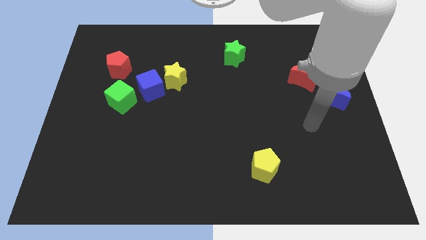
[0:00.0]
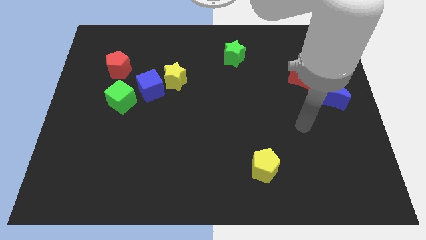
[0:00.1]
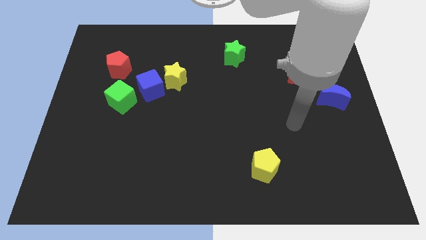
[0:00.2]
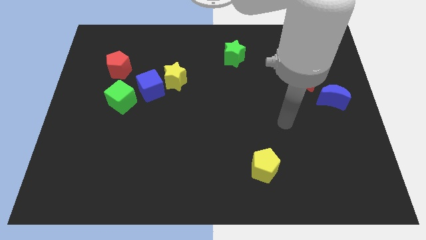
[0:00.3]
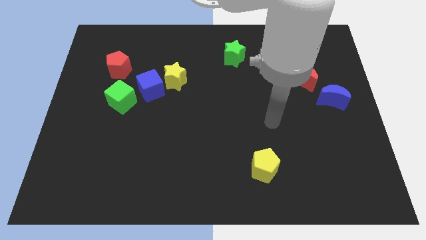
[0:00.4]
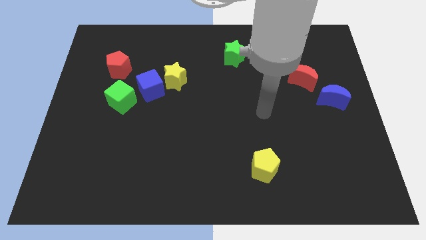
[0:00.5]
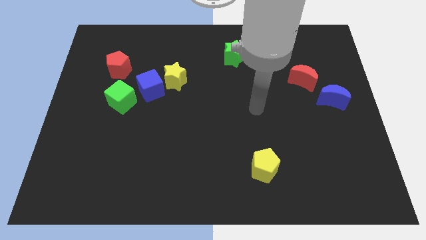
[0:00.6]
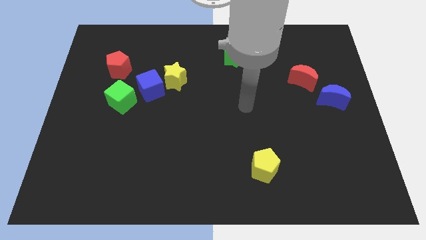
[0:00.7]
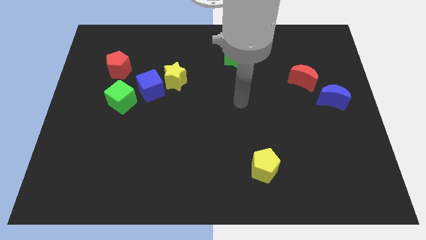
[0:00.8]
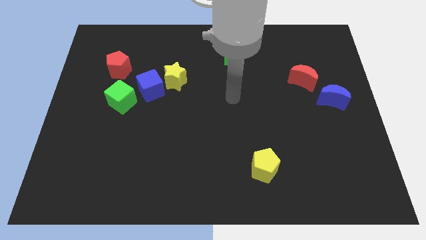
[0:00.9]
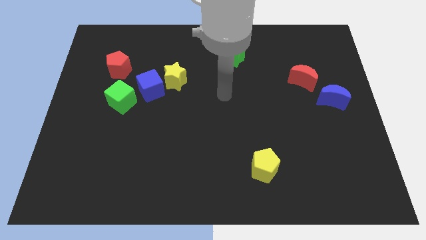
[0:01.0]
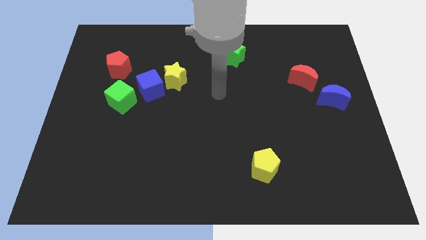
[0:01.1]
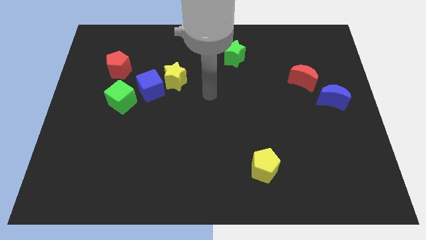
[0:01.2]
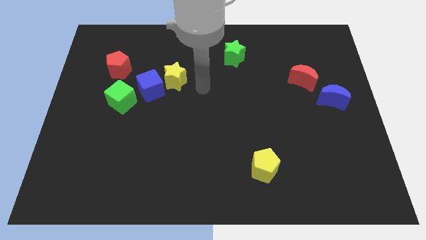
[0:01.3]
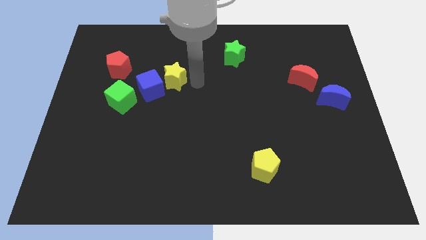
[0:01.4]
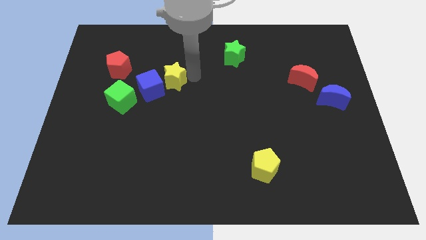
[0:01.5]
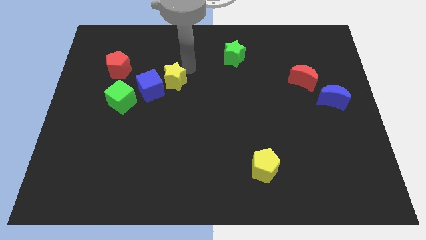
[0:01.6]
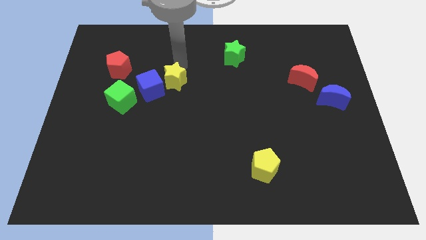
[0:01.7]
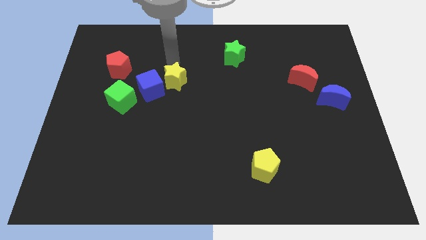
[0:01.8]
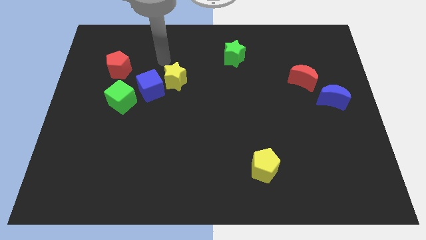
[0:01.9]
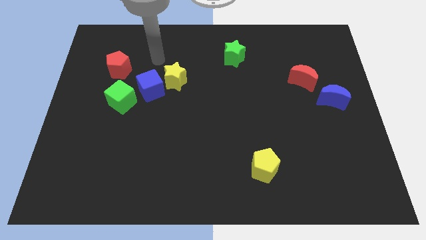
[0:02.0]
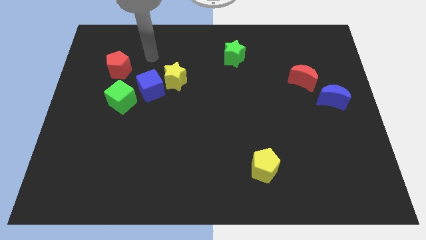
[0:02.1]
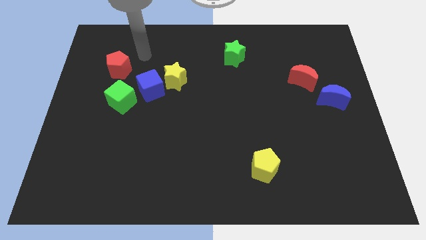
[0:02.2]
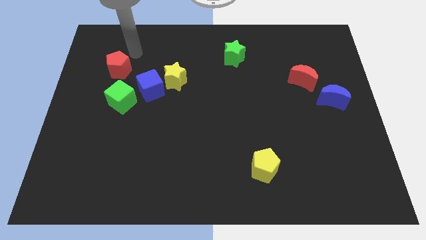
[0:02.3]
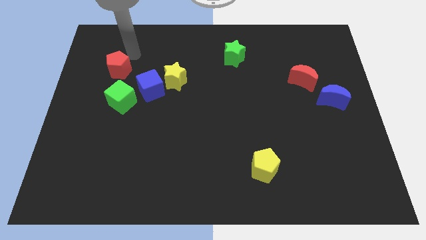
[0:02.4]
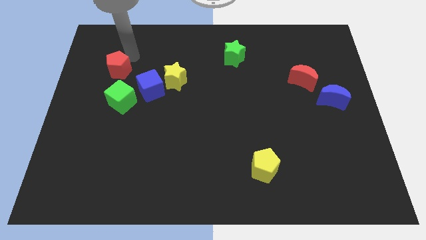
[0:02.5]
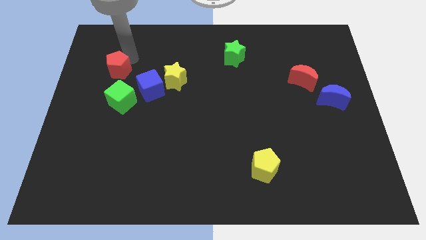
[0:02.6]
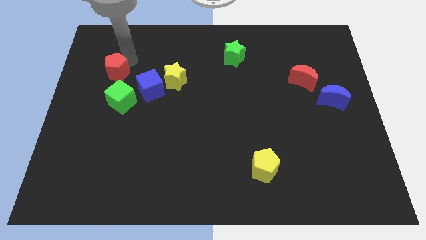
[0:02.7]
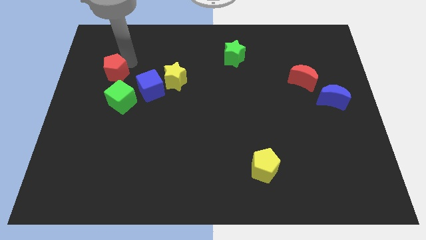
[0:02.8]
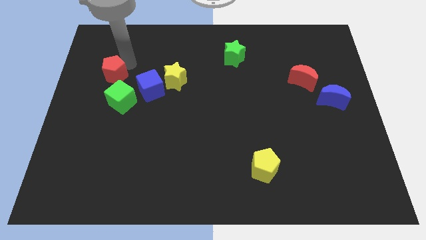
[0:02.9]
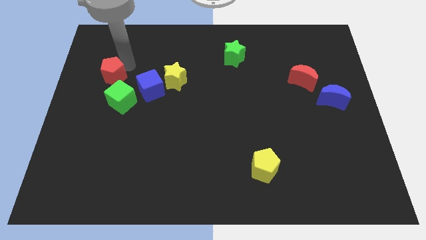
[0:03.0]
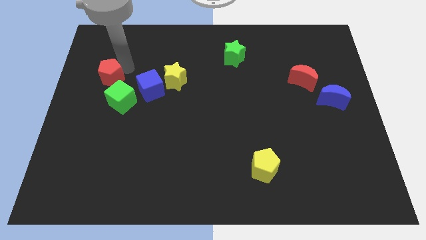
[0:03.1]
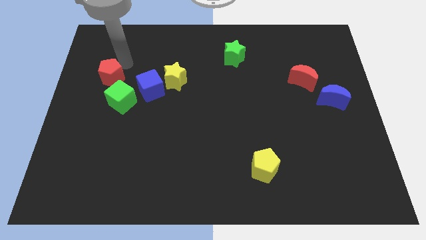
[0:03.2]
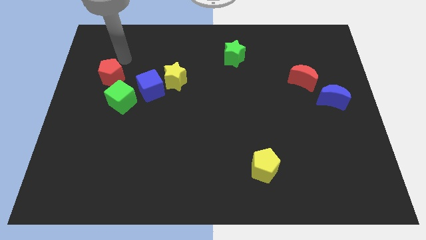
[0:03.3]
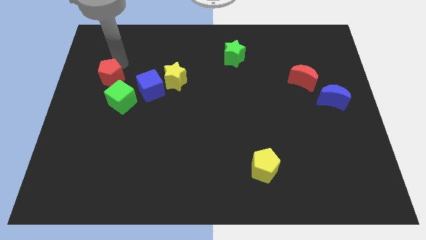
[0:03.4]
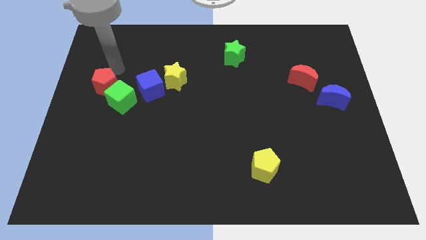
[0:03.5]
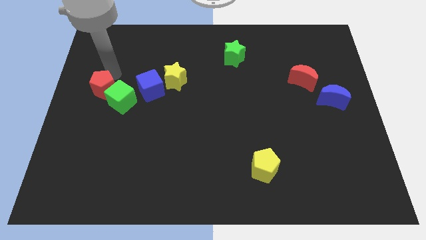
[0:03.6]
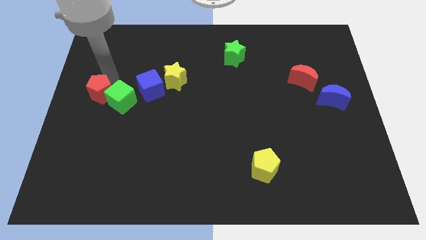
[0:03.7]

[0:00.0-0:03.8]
slide the red pentagon a little bit downwards

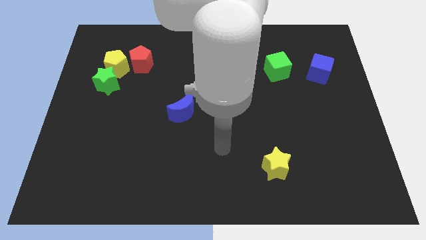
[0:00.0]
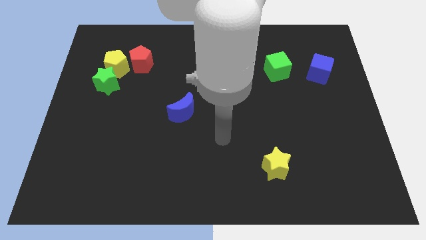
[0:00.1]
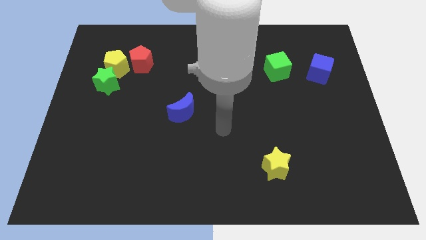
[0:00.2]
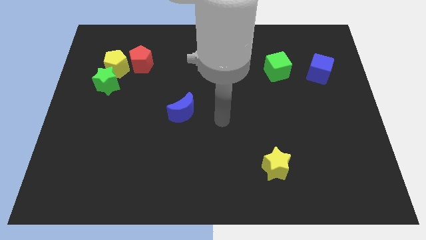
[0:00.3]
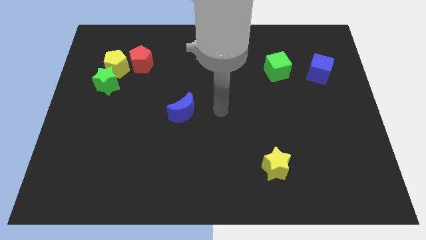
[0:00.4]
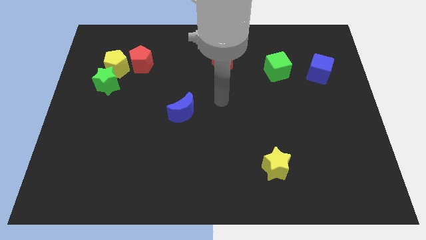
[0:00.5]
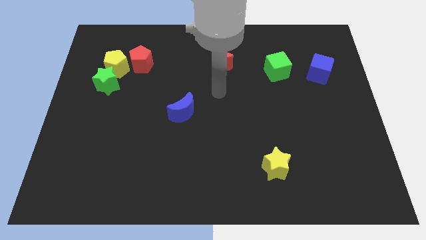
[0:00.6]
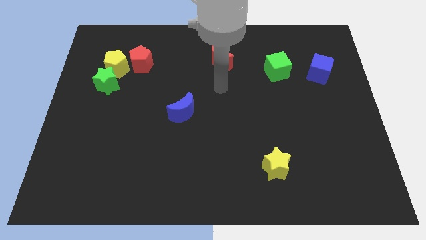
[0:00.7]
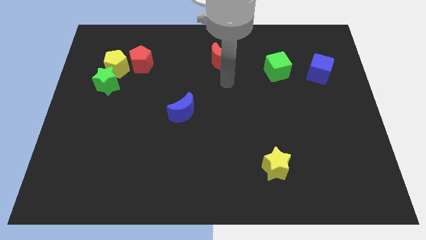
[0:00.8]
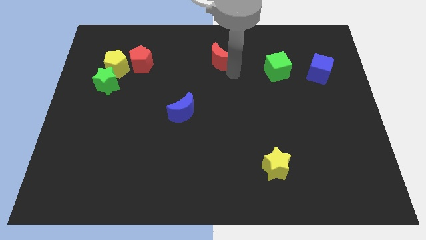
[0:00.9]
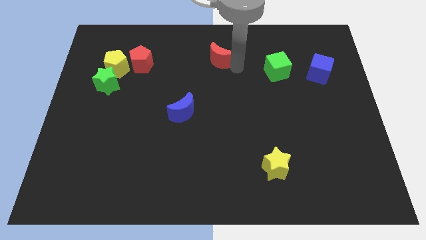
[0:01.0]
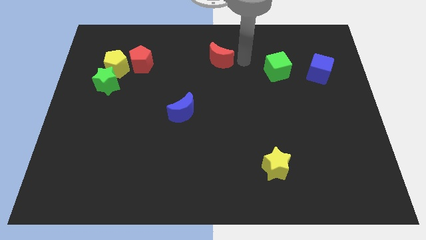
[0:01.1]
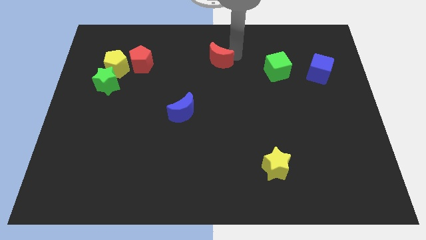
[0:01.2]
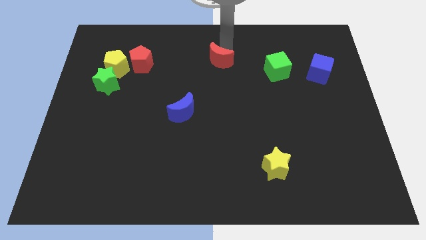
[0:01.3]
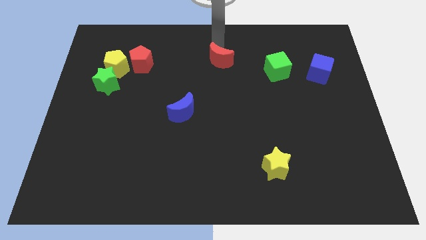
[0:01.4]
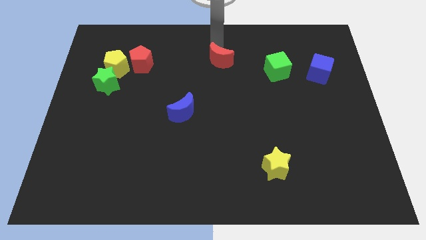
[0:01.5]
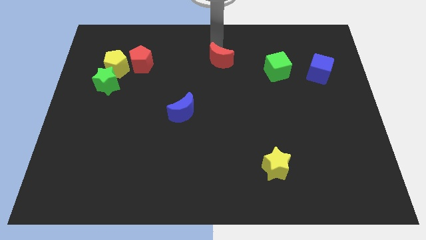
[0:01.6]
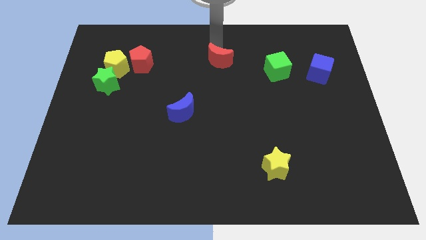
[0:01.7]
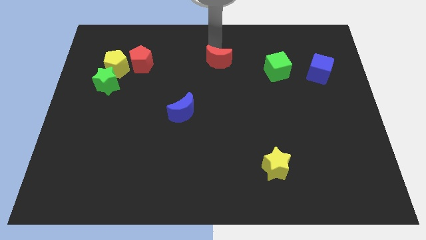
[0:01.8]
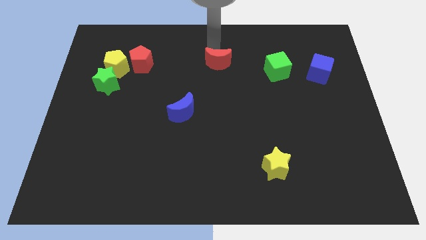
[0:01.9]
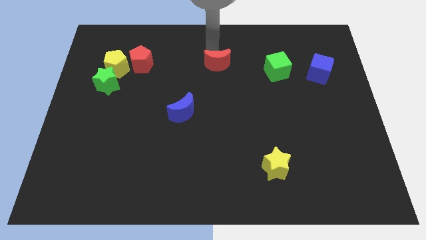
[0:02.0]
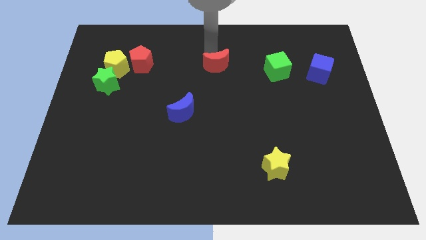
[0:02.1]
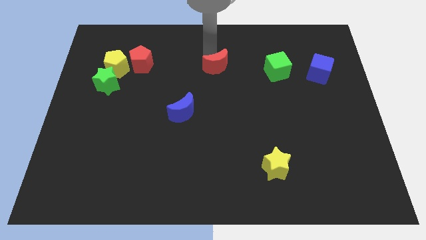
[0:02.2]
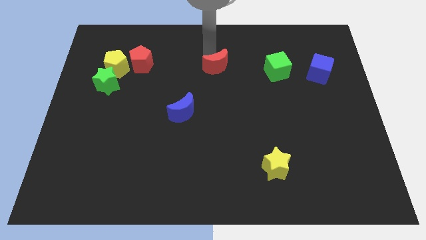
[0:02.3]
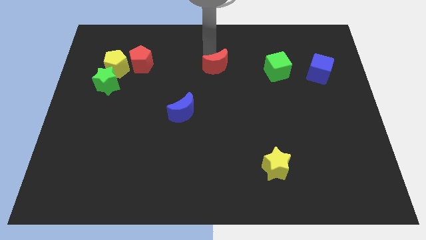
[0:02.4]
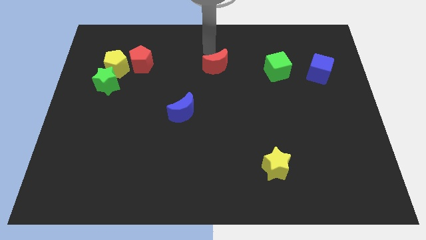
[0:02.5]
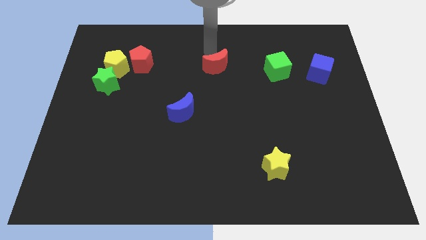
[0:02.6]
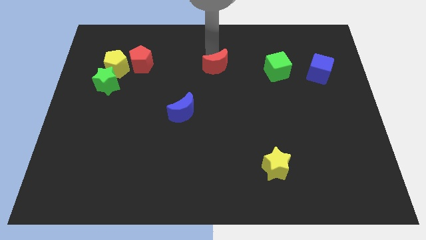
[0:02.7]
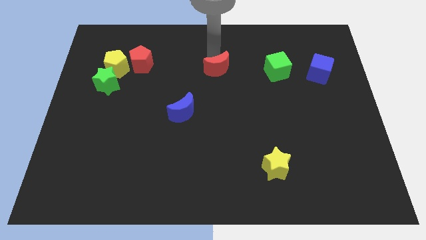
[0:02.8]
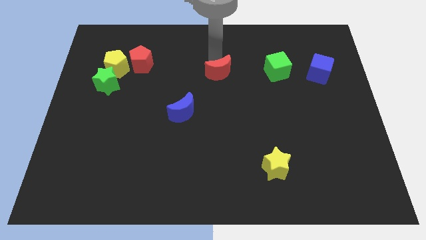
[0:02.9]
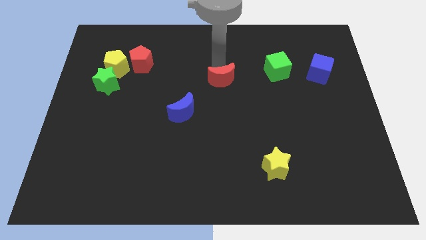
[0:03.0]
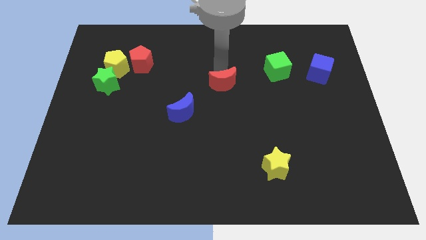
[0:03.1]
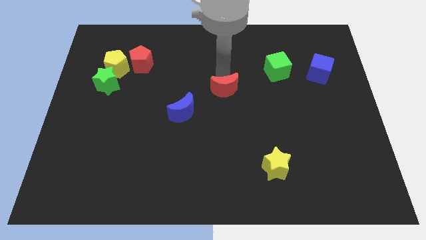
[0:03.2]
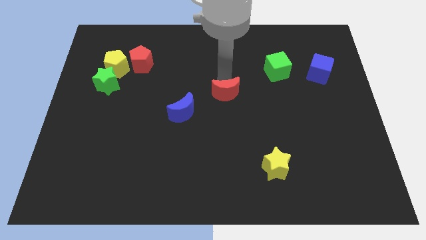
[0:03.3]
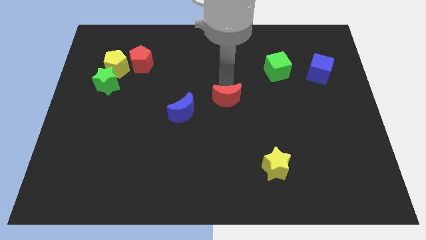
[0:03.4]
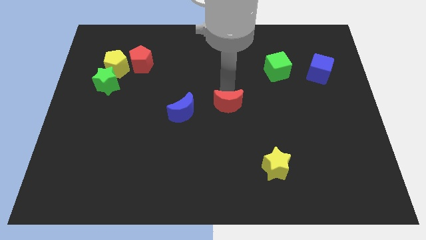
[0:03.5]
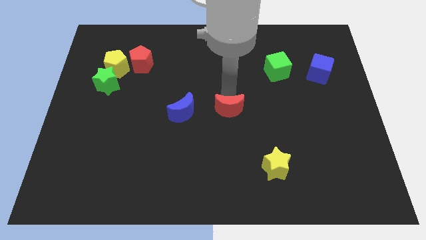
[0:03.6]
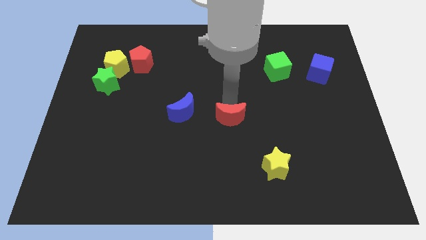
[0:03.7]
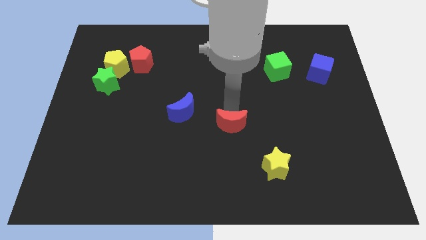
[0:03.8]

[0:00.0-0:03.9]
move the red moon down
